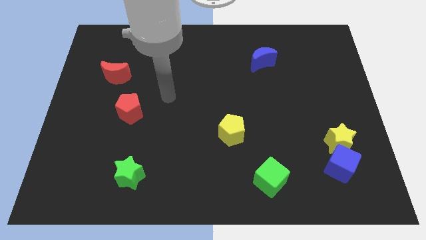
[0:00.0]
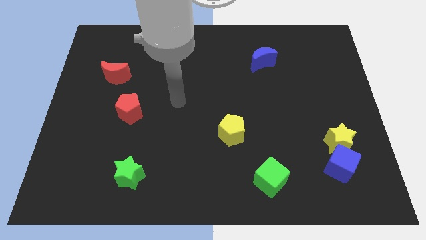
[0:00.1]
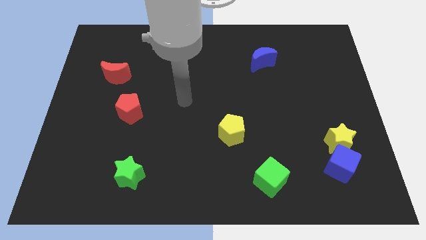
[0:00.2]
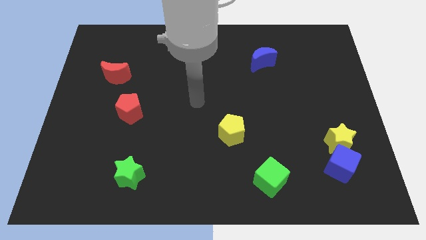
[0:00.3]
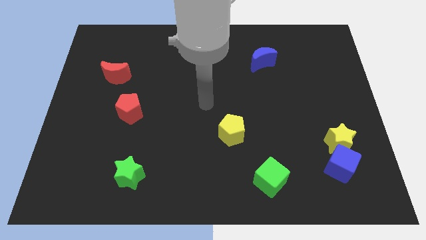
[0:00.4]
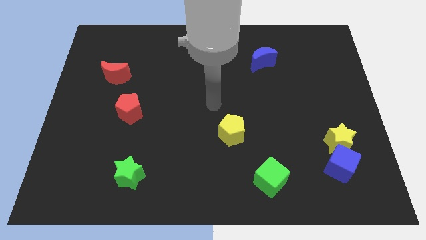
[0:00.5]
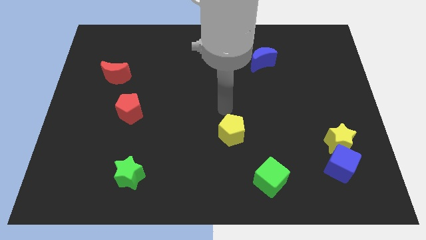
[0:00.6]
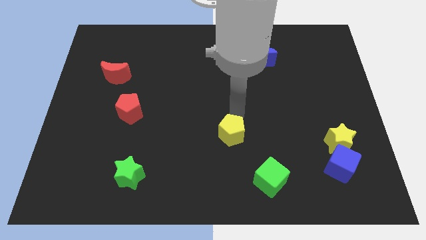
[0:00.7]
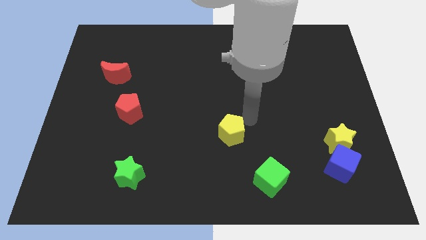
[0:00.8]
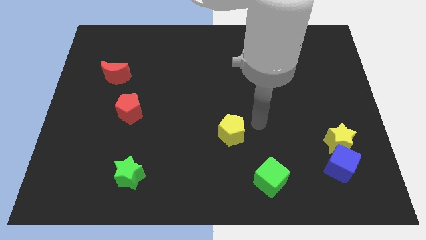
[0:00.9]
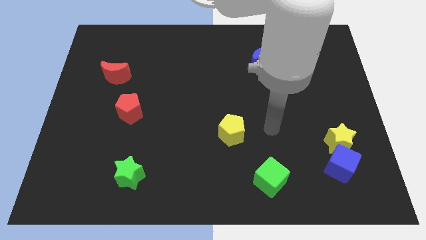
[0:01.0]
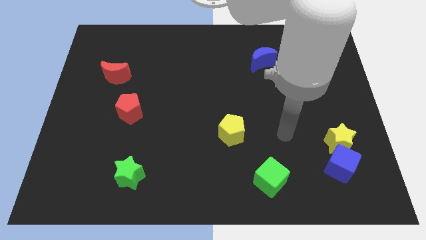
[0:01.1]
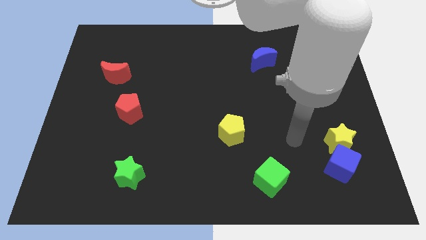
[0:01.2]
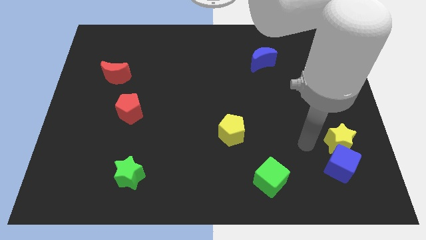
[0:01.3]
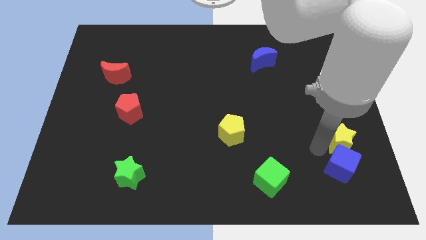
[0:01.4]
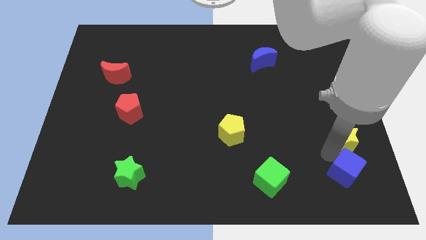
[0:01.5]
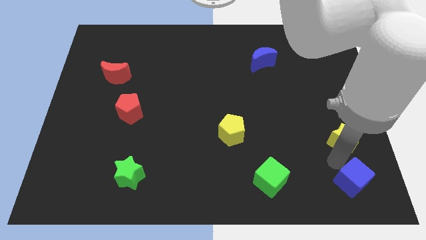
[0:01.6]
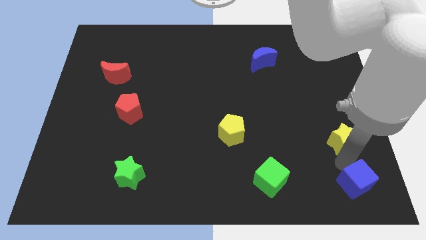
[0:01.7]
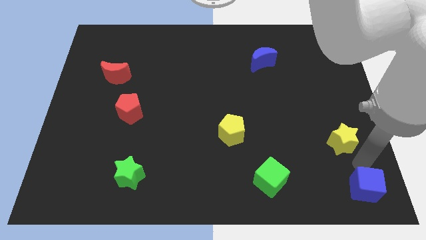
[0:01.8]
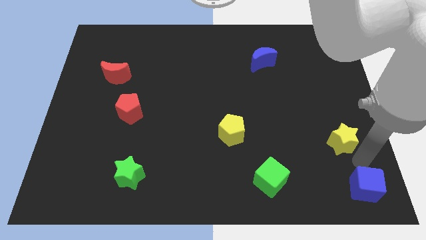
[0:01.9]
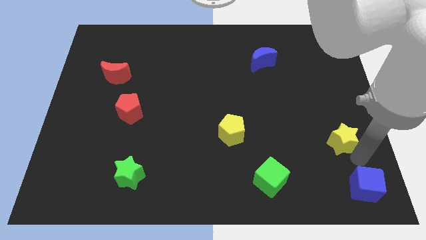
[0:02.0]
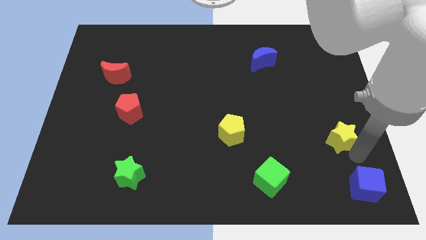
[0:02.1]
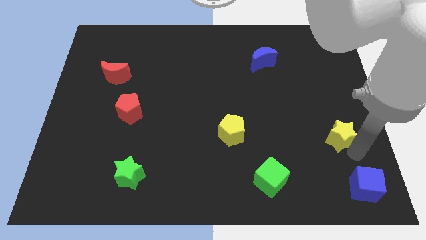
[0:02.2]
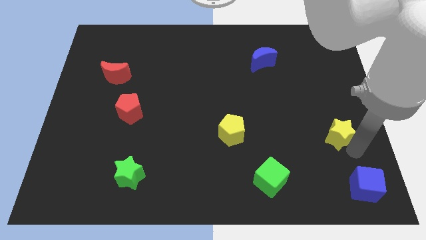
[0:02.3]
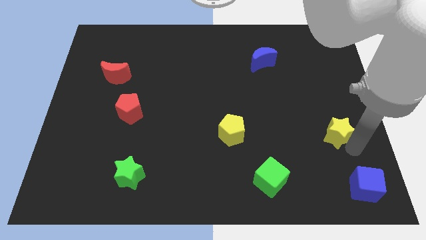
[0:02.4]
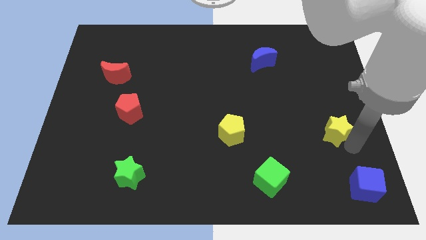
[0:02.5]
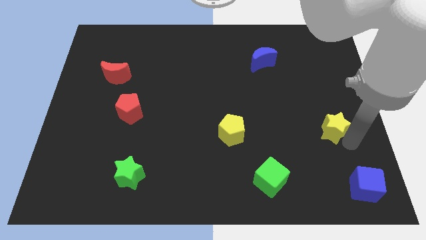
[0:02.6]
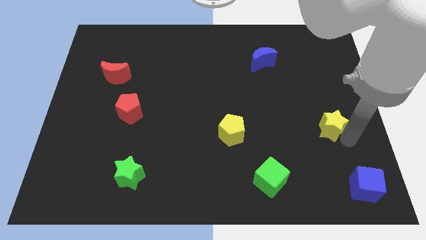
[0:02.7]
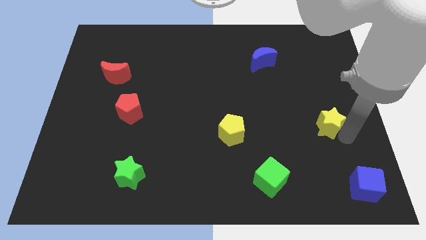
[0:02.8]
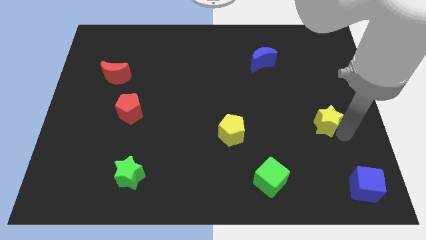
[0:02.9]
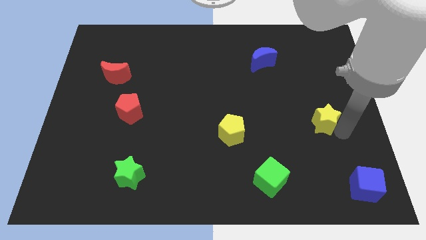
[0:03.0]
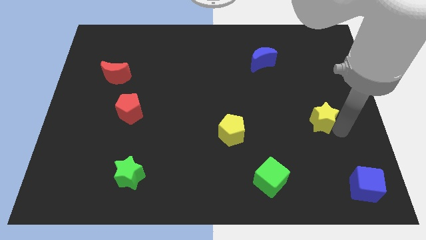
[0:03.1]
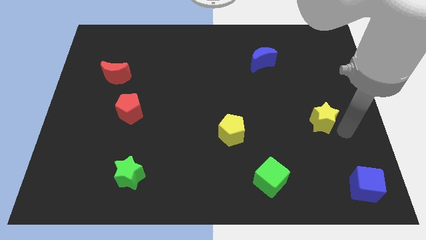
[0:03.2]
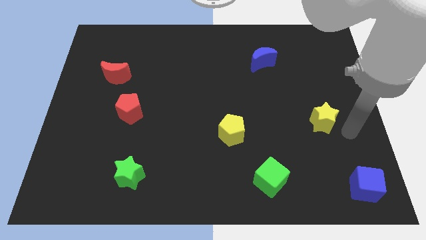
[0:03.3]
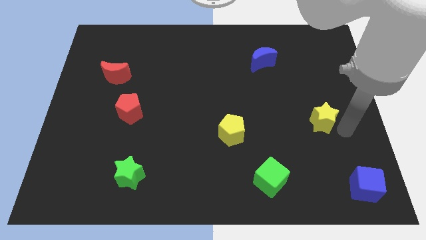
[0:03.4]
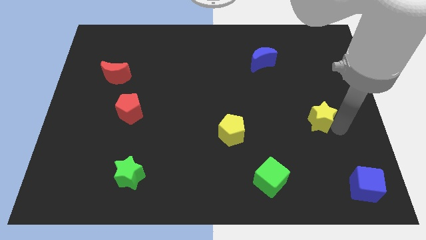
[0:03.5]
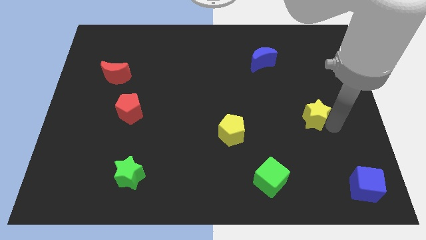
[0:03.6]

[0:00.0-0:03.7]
move the yellow star up and to the left diagonally somewhat

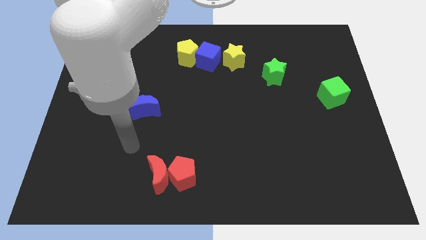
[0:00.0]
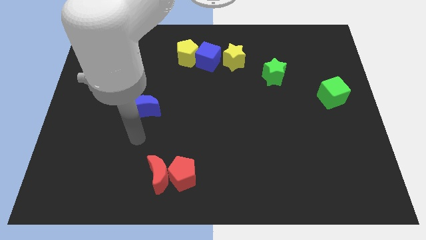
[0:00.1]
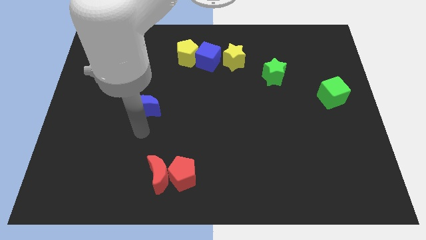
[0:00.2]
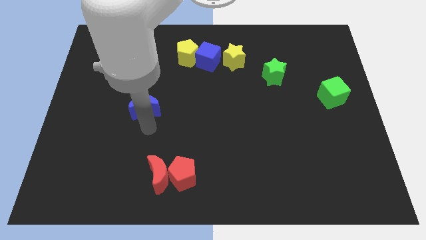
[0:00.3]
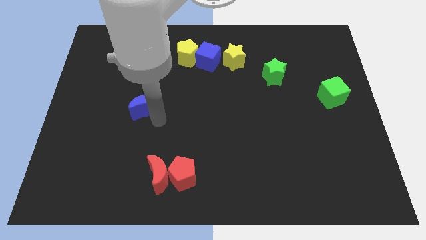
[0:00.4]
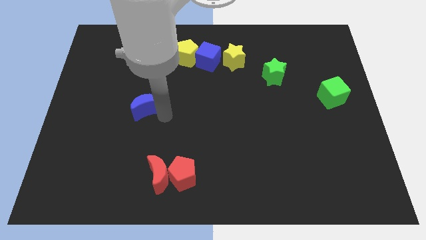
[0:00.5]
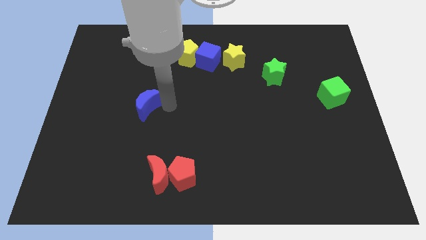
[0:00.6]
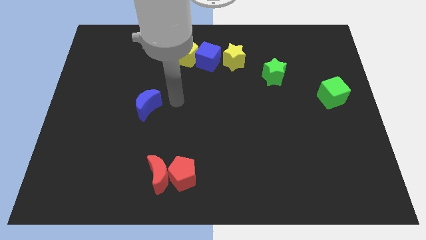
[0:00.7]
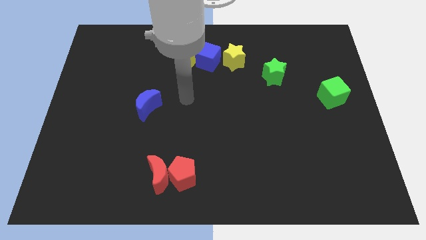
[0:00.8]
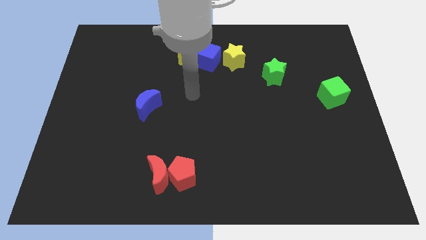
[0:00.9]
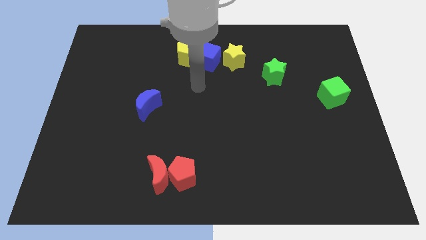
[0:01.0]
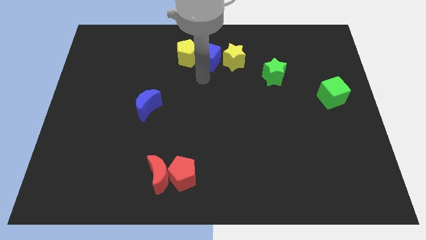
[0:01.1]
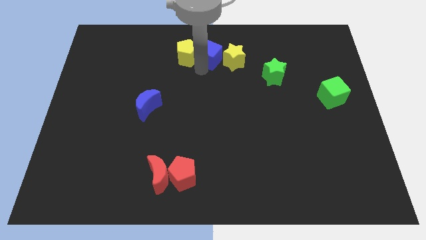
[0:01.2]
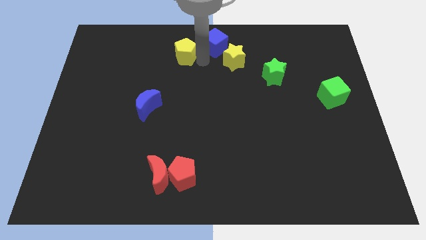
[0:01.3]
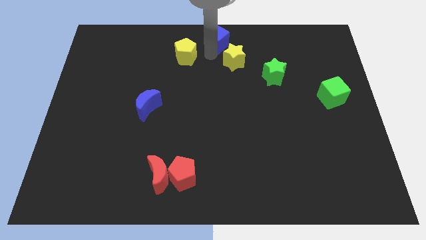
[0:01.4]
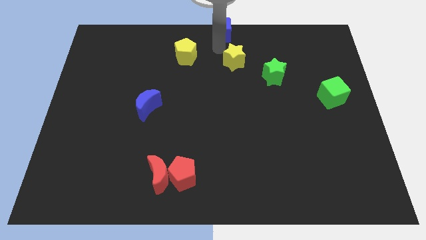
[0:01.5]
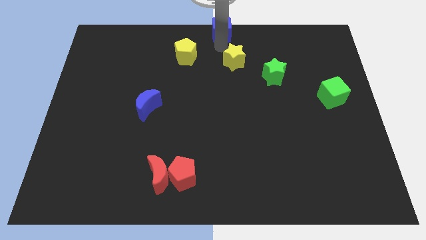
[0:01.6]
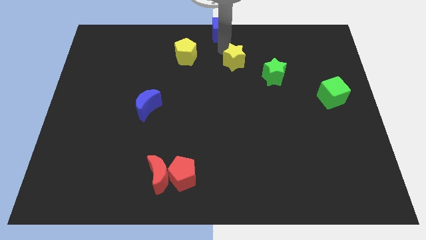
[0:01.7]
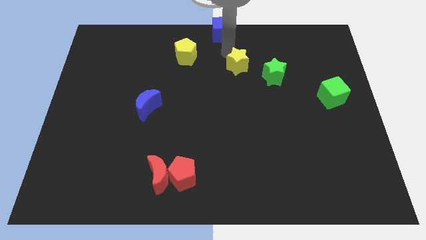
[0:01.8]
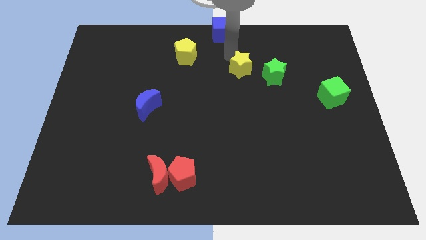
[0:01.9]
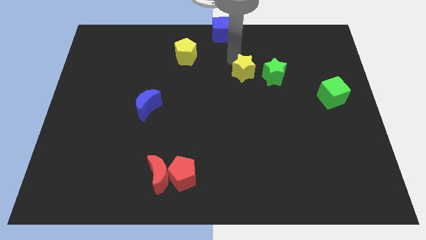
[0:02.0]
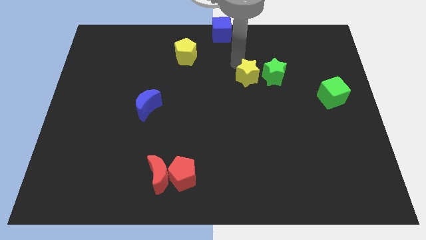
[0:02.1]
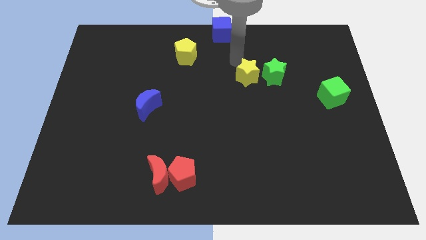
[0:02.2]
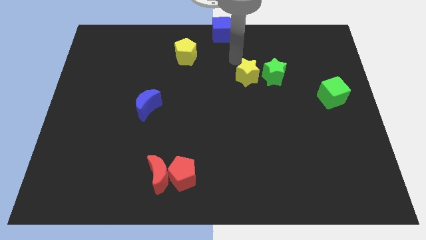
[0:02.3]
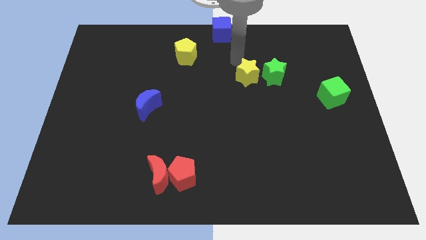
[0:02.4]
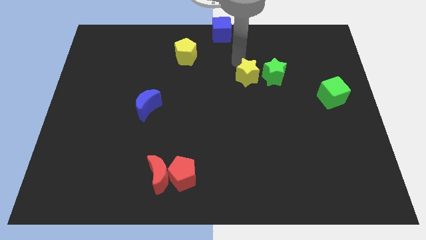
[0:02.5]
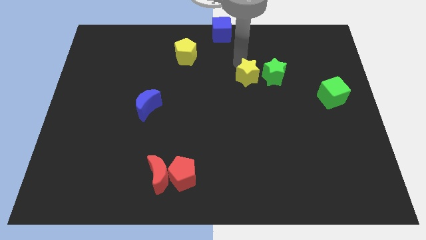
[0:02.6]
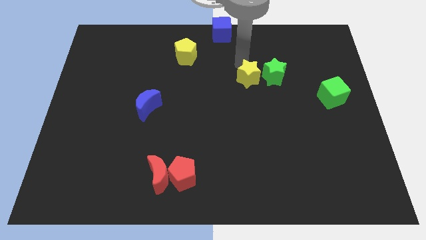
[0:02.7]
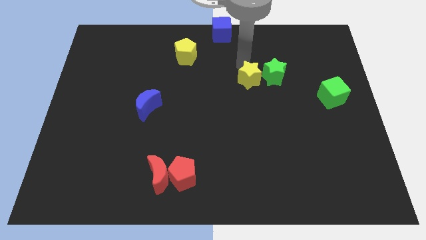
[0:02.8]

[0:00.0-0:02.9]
push the yellow star a little bit diagonally down and to the right

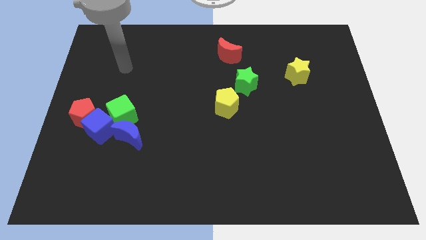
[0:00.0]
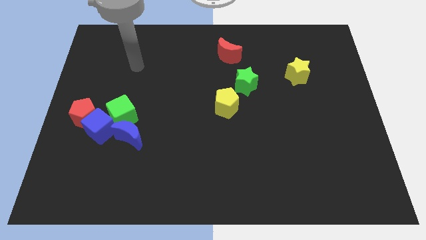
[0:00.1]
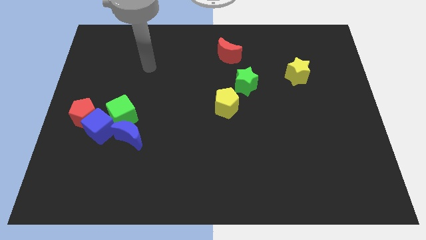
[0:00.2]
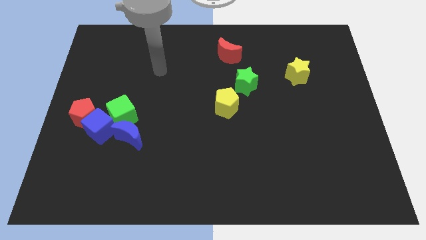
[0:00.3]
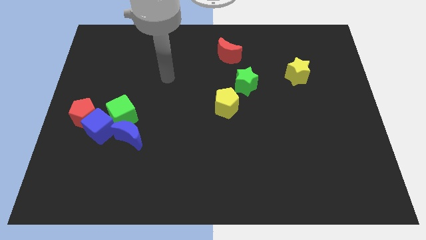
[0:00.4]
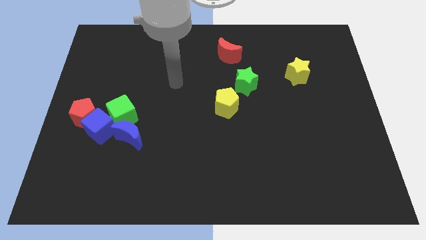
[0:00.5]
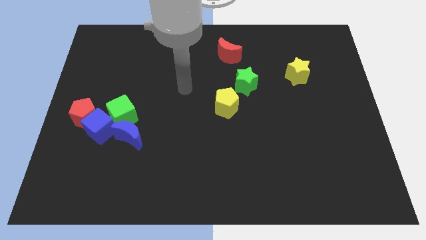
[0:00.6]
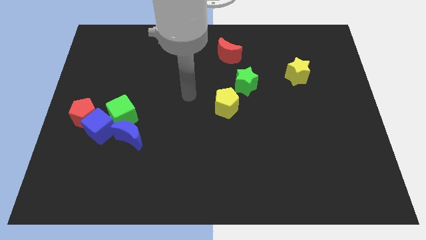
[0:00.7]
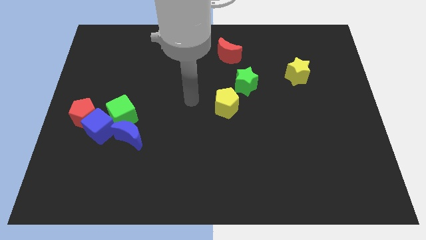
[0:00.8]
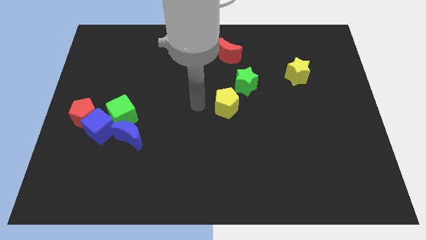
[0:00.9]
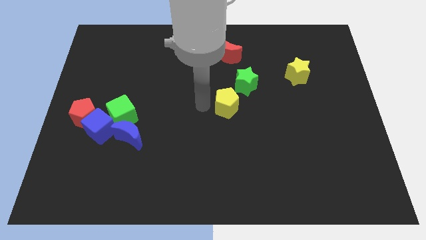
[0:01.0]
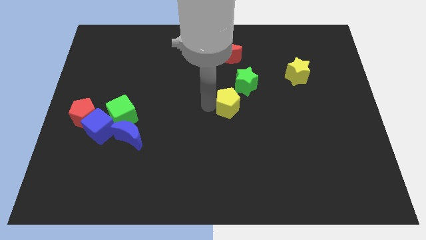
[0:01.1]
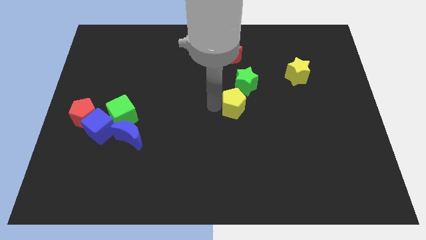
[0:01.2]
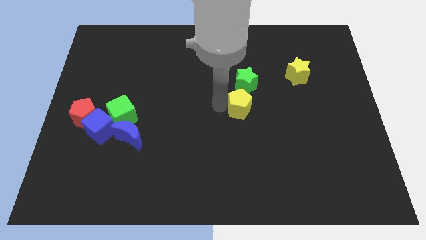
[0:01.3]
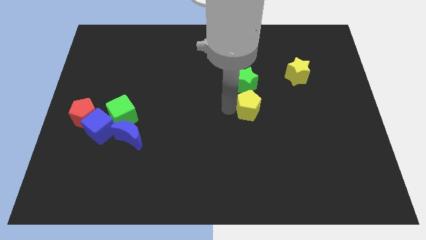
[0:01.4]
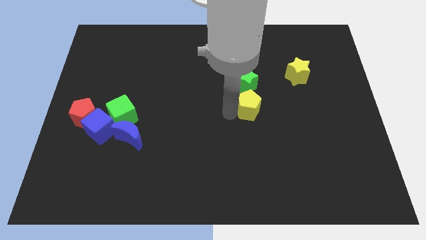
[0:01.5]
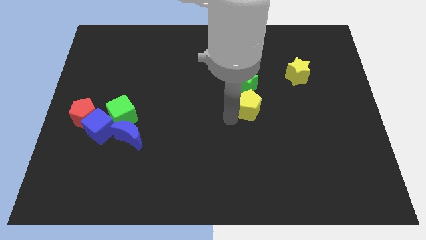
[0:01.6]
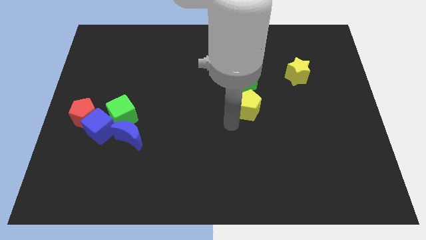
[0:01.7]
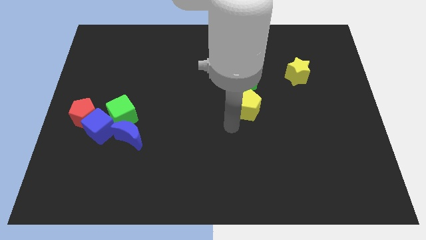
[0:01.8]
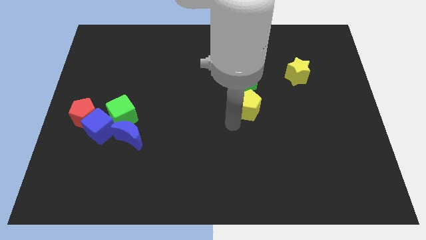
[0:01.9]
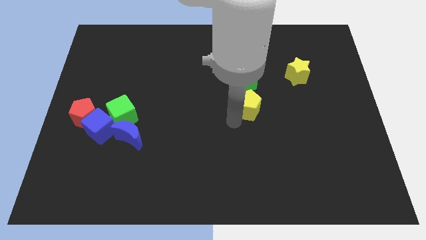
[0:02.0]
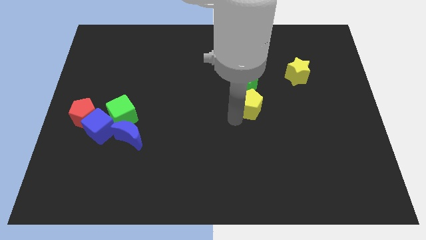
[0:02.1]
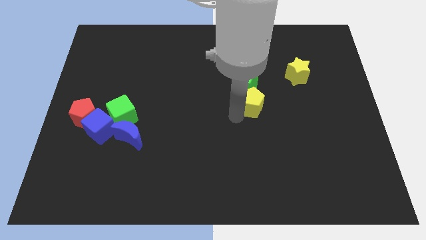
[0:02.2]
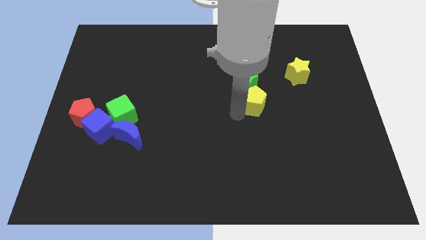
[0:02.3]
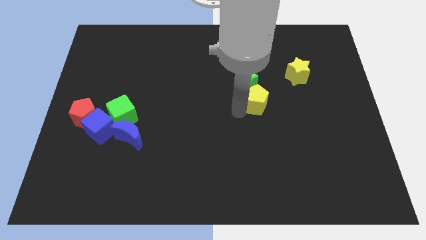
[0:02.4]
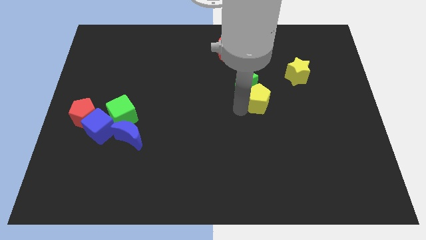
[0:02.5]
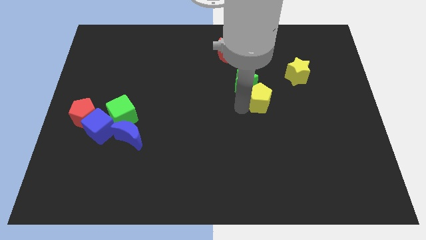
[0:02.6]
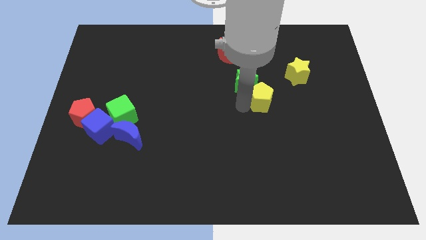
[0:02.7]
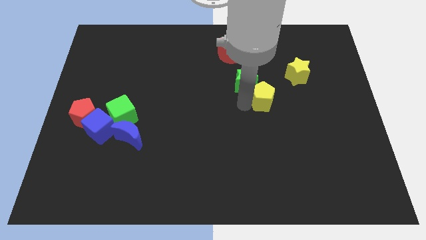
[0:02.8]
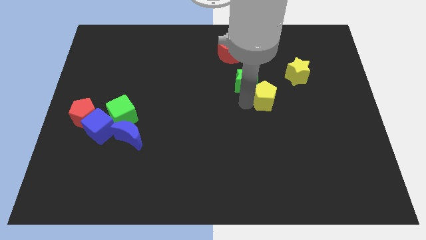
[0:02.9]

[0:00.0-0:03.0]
push the yellow pentagon a little bit up and right
